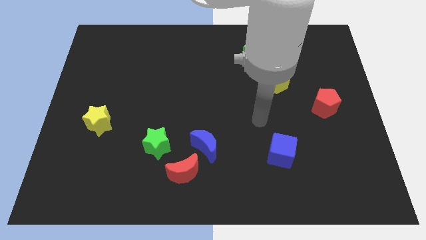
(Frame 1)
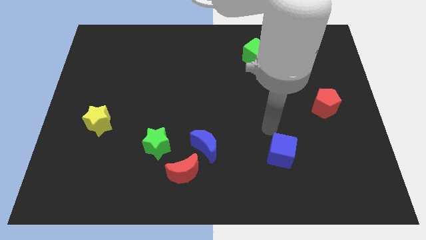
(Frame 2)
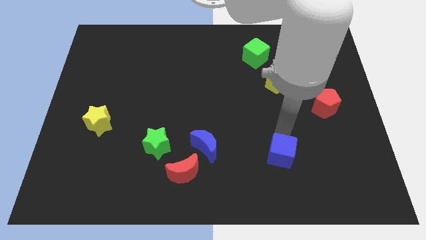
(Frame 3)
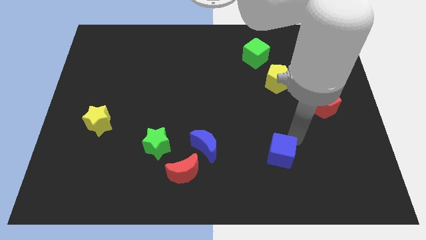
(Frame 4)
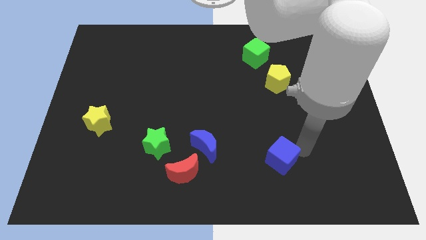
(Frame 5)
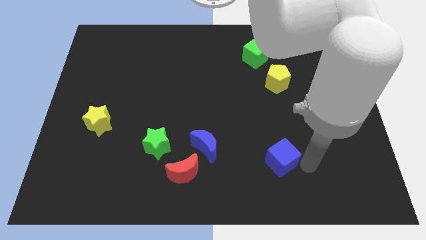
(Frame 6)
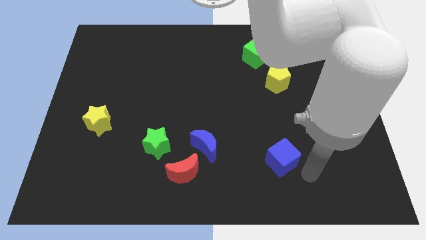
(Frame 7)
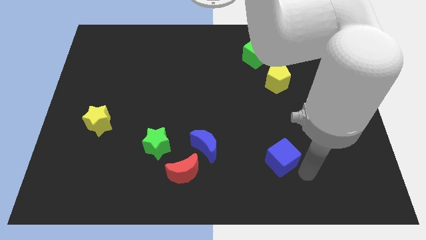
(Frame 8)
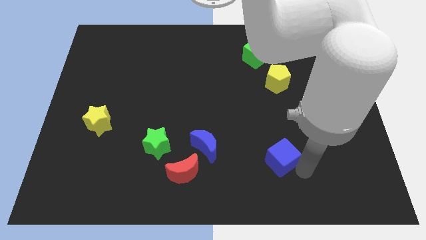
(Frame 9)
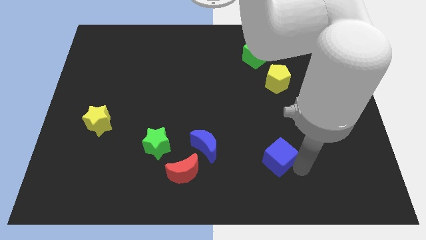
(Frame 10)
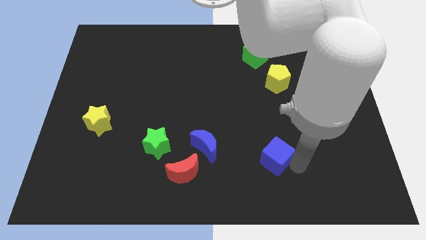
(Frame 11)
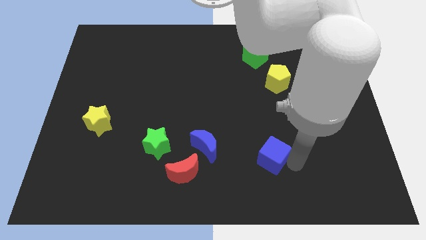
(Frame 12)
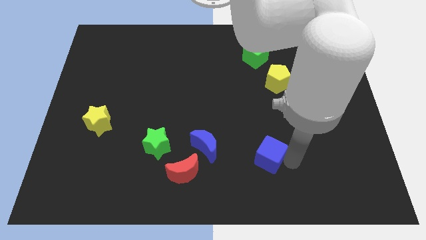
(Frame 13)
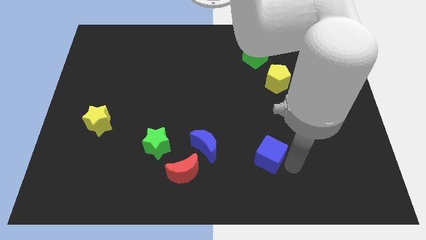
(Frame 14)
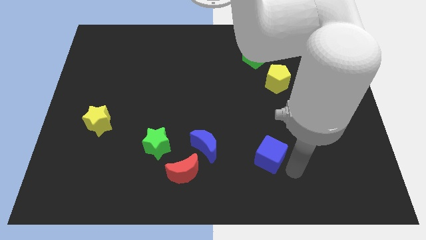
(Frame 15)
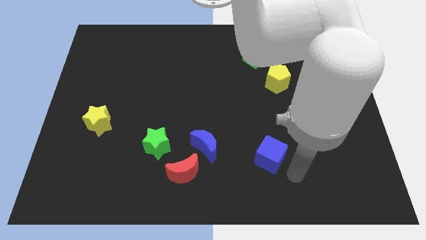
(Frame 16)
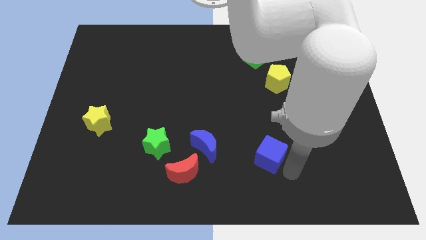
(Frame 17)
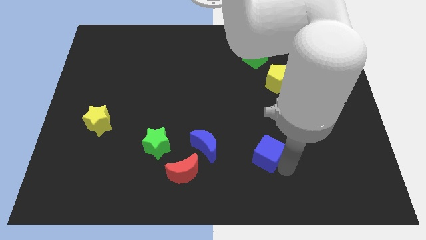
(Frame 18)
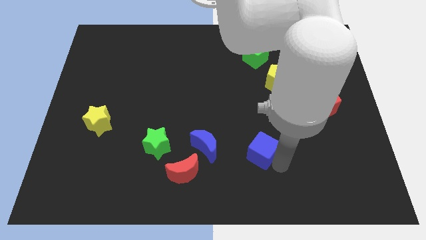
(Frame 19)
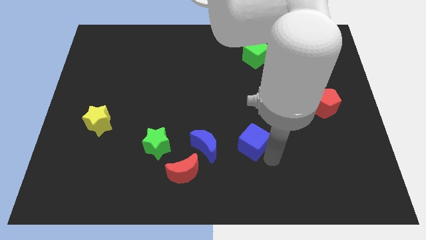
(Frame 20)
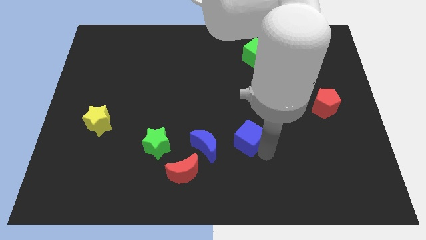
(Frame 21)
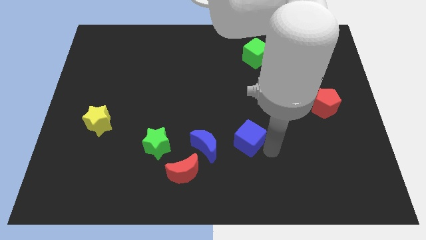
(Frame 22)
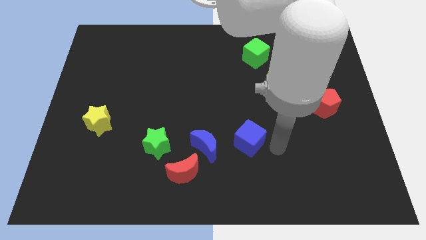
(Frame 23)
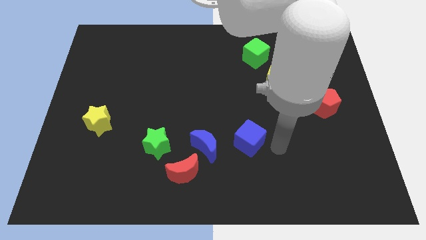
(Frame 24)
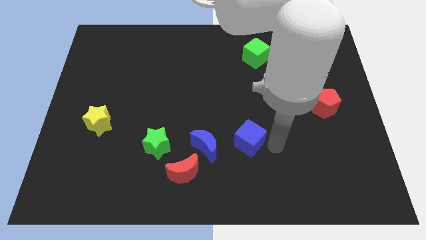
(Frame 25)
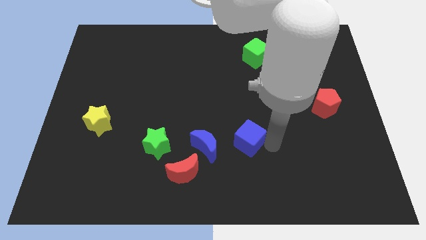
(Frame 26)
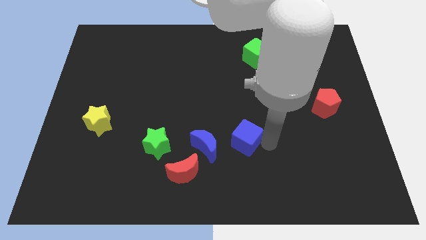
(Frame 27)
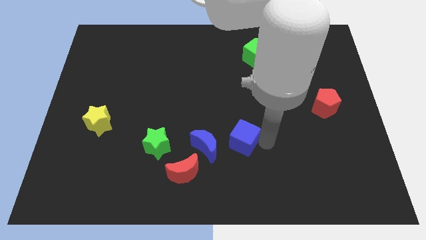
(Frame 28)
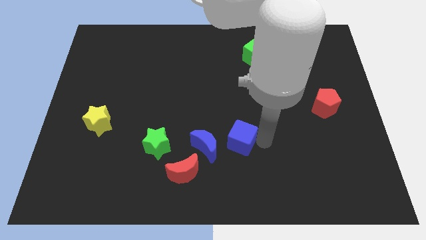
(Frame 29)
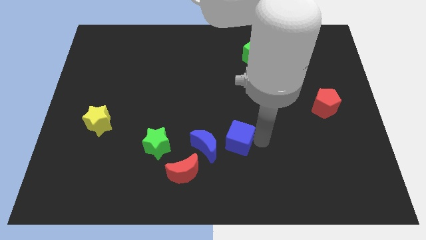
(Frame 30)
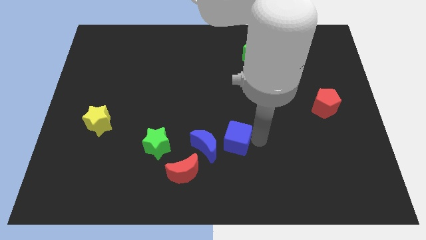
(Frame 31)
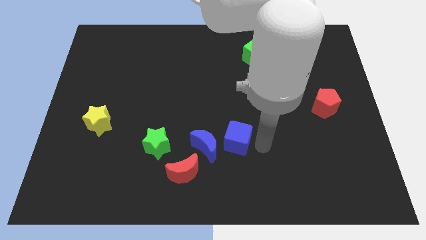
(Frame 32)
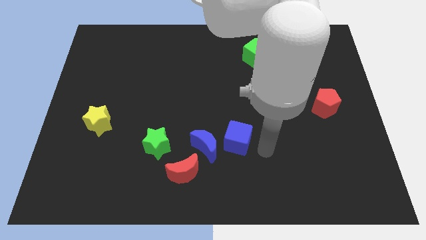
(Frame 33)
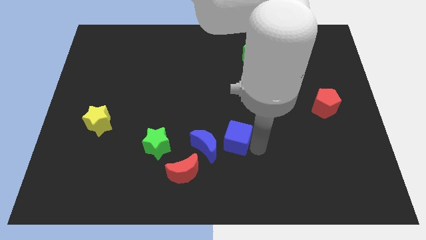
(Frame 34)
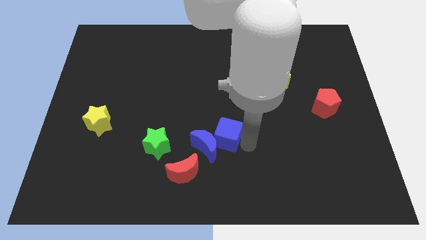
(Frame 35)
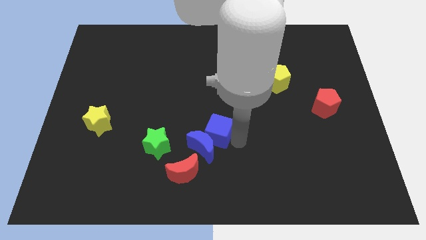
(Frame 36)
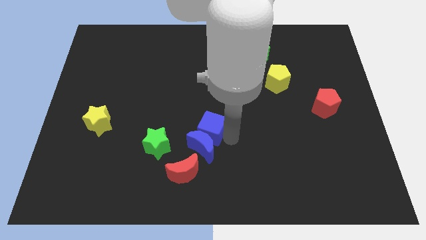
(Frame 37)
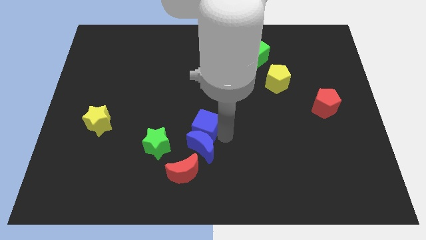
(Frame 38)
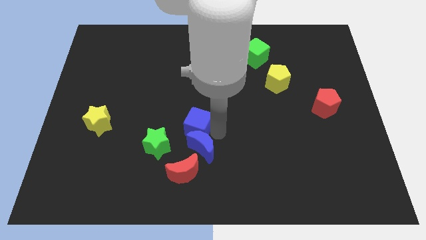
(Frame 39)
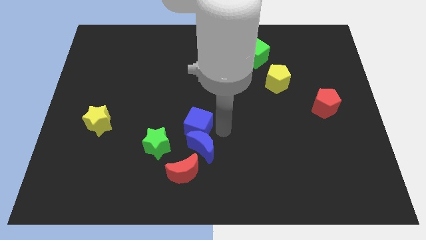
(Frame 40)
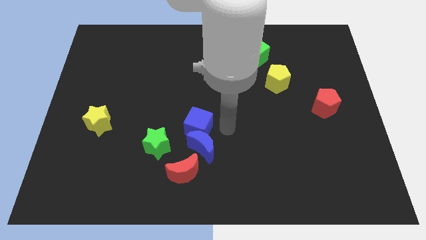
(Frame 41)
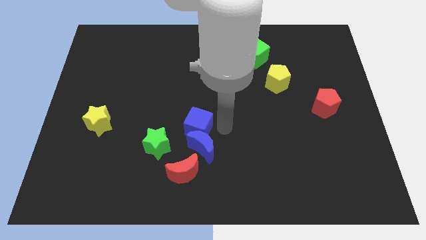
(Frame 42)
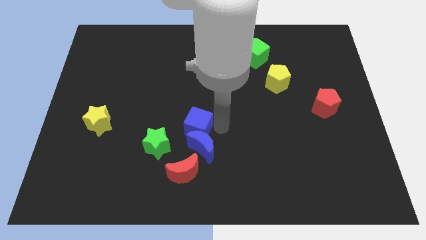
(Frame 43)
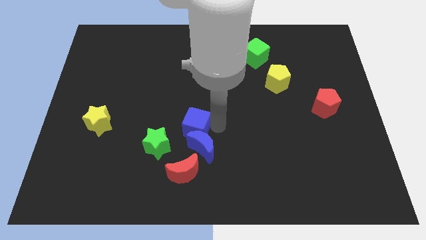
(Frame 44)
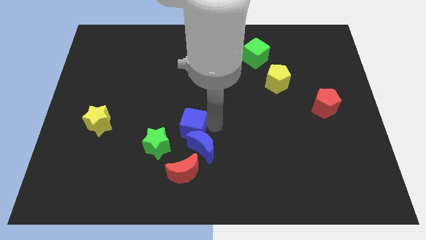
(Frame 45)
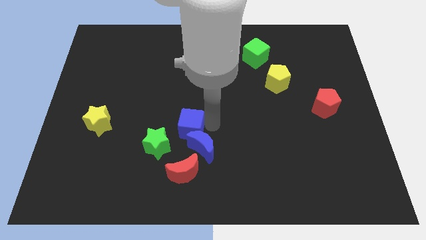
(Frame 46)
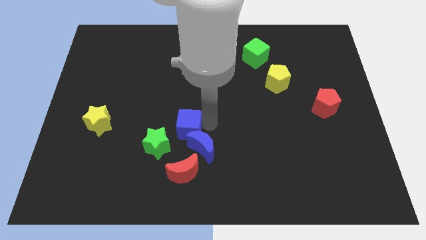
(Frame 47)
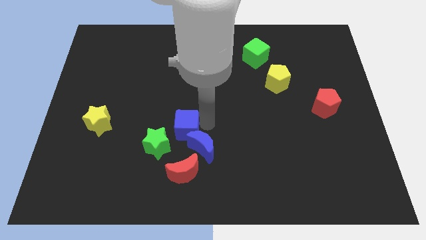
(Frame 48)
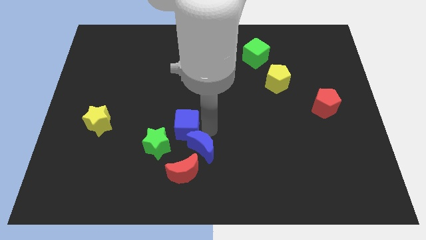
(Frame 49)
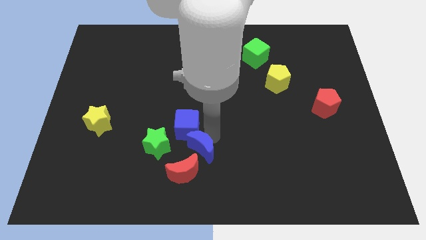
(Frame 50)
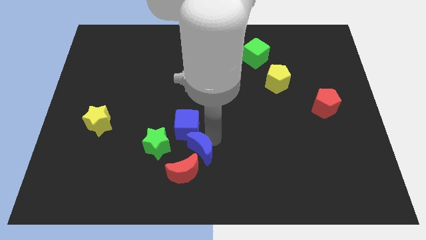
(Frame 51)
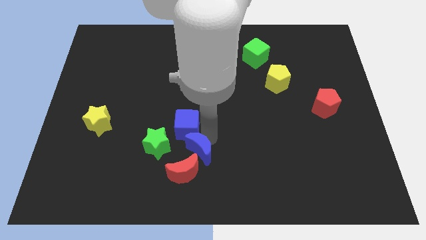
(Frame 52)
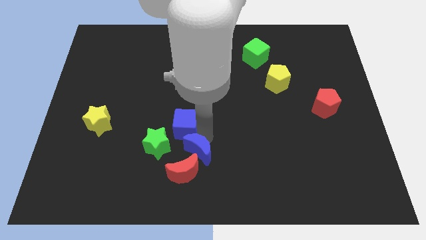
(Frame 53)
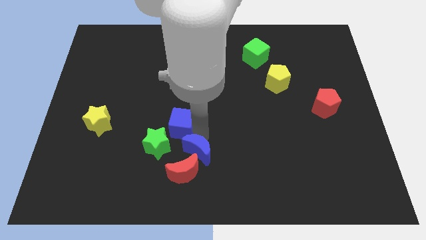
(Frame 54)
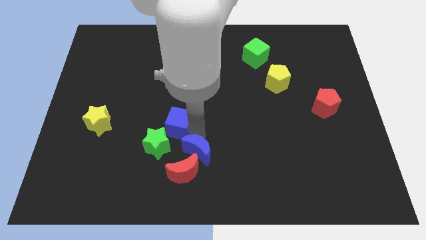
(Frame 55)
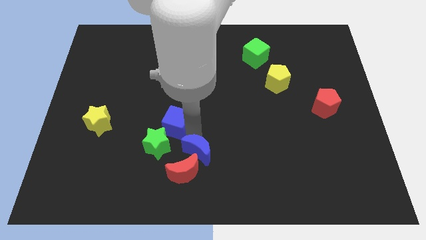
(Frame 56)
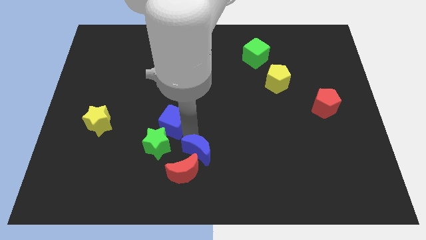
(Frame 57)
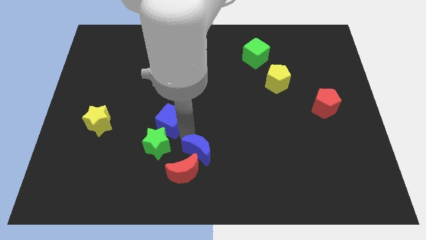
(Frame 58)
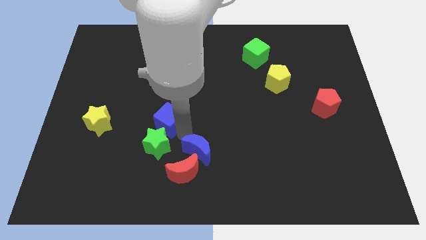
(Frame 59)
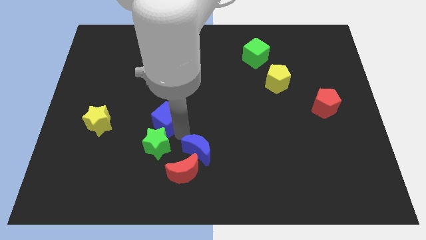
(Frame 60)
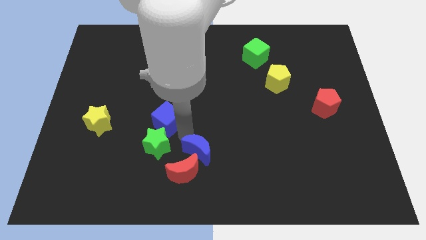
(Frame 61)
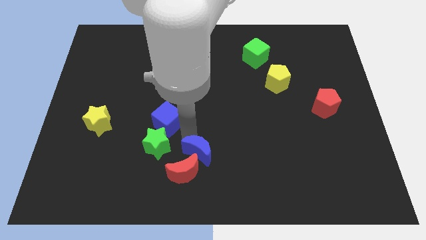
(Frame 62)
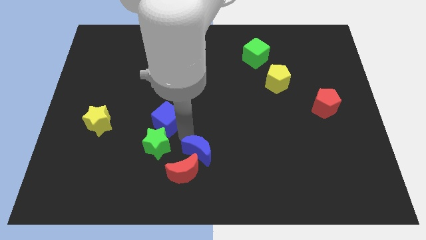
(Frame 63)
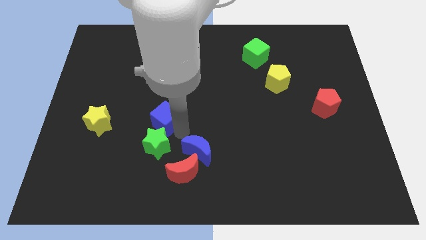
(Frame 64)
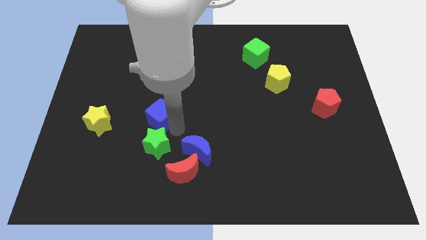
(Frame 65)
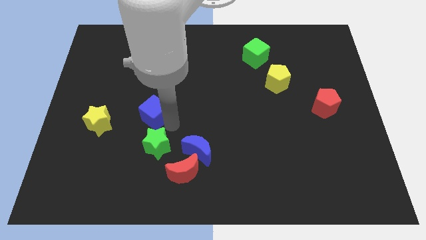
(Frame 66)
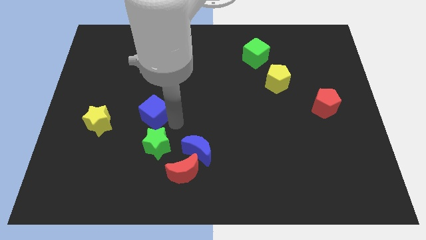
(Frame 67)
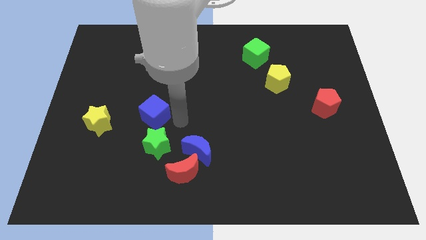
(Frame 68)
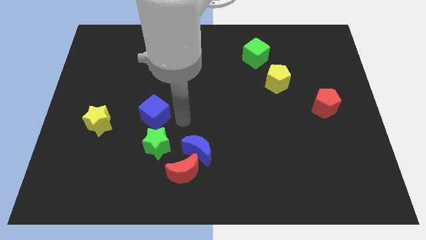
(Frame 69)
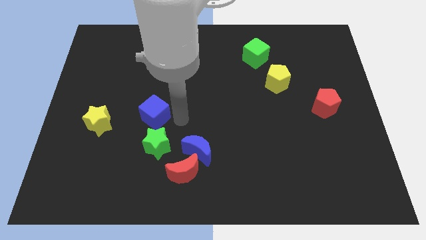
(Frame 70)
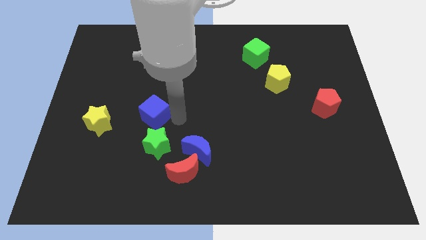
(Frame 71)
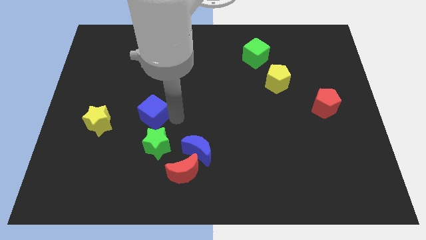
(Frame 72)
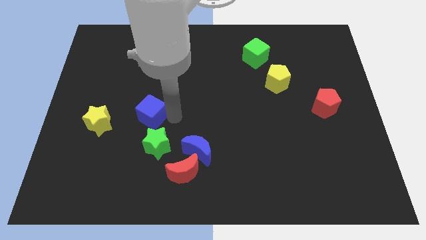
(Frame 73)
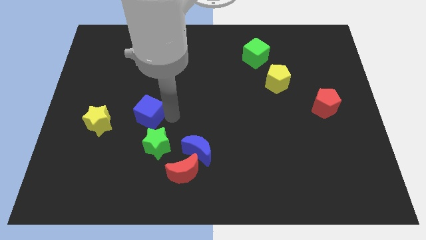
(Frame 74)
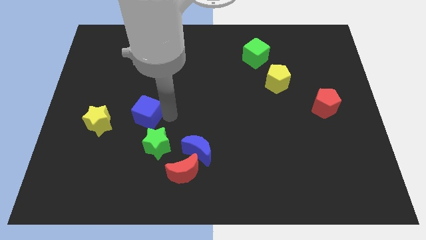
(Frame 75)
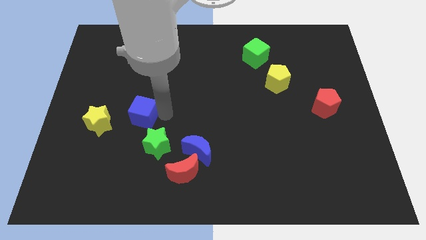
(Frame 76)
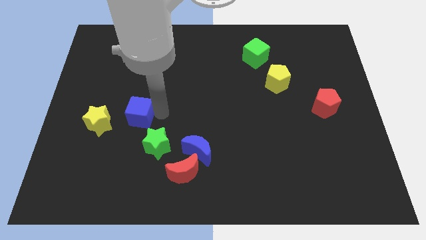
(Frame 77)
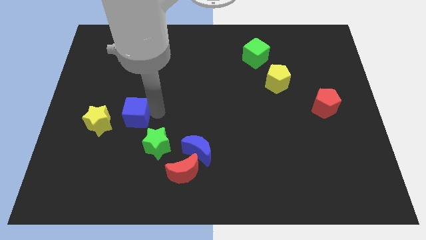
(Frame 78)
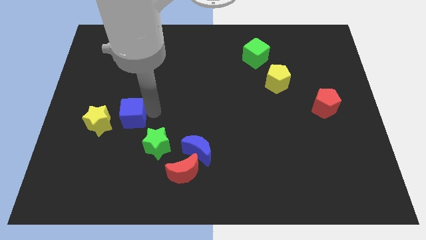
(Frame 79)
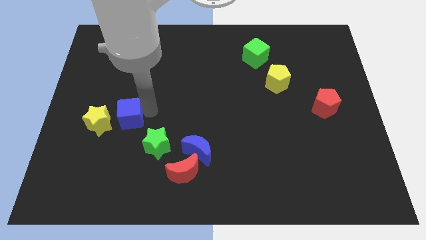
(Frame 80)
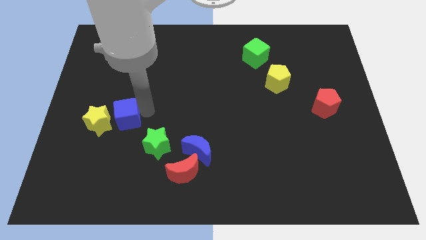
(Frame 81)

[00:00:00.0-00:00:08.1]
slide the blue cube towards the yellow star
